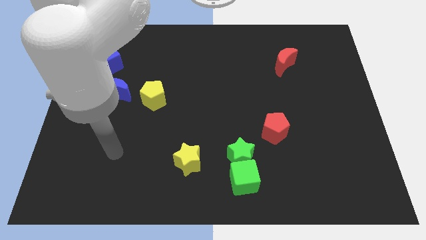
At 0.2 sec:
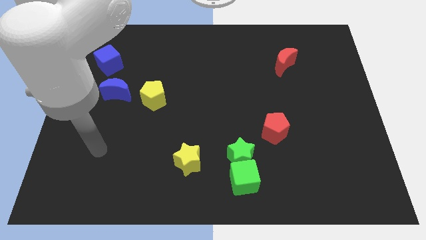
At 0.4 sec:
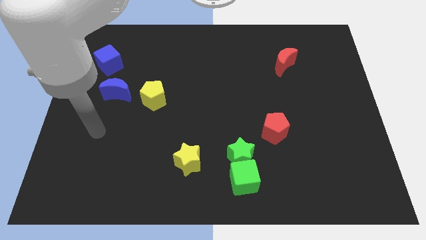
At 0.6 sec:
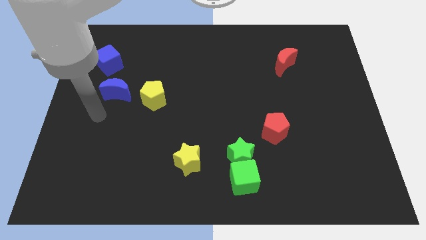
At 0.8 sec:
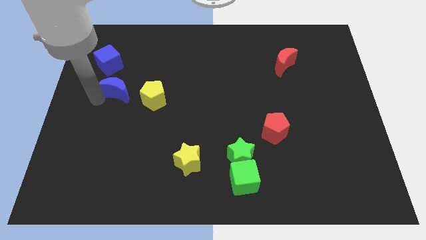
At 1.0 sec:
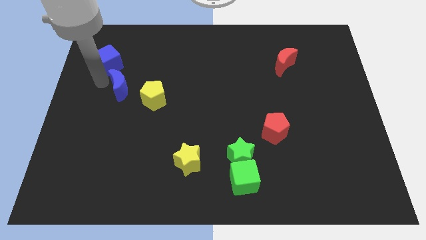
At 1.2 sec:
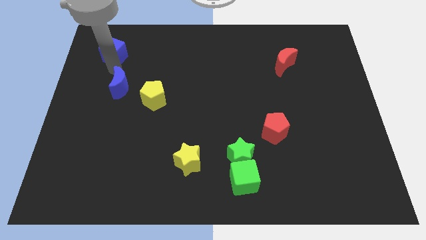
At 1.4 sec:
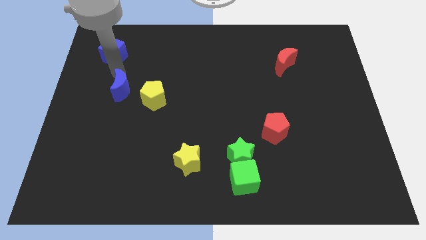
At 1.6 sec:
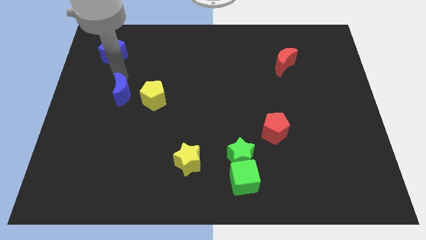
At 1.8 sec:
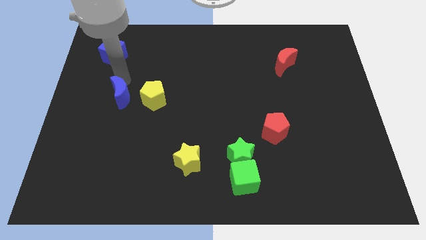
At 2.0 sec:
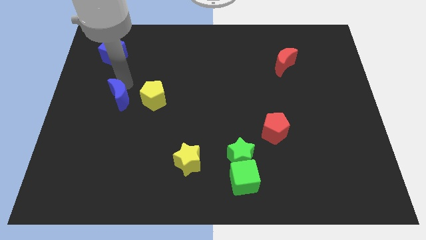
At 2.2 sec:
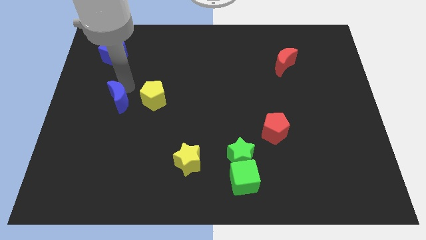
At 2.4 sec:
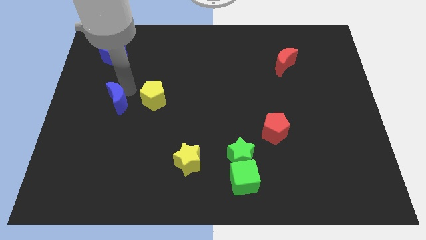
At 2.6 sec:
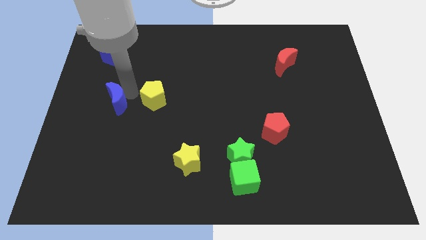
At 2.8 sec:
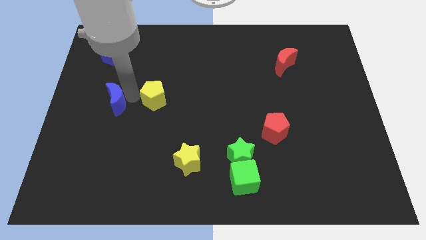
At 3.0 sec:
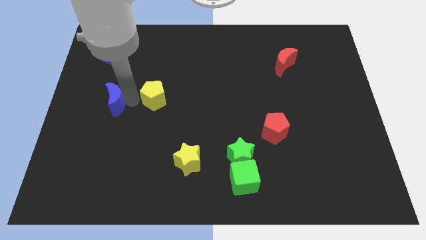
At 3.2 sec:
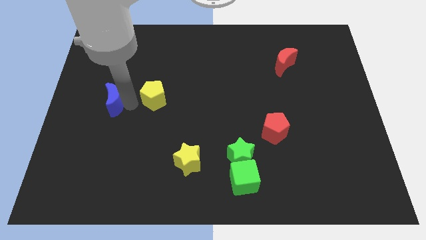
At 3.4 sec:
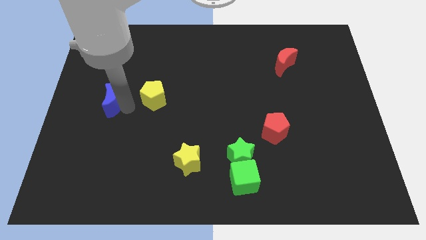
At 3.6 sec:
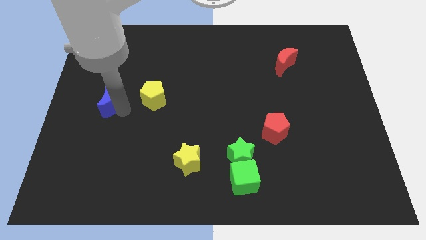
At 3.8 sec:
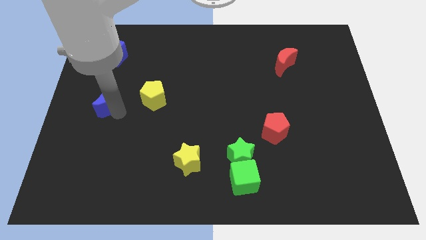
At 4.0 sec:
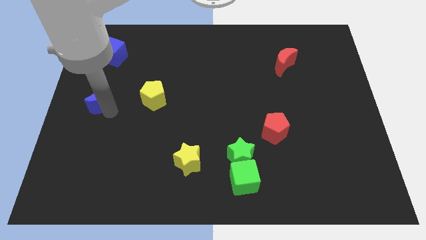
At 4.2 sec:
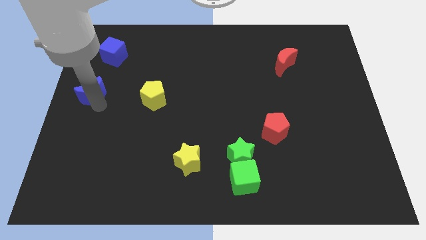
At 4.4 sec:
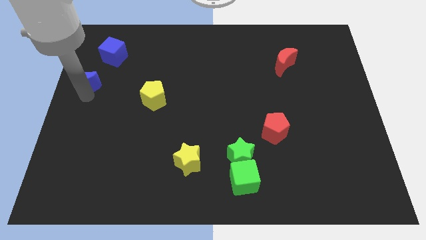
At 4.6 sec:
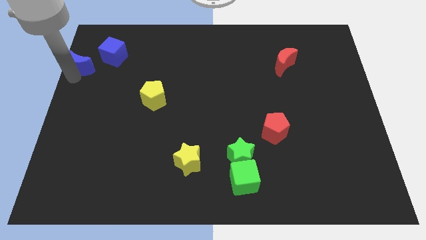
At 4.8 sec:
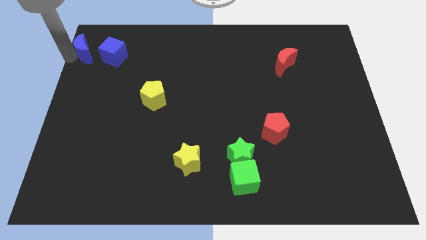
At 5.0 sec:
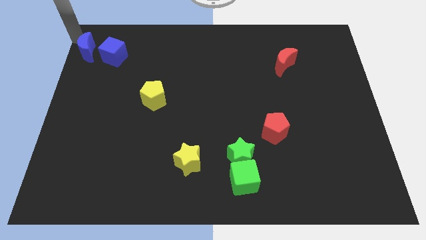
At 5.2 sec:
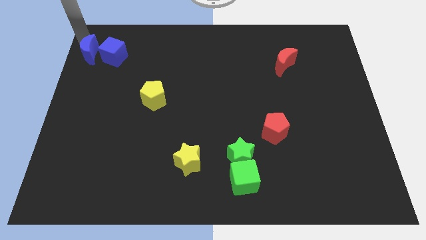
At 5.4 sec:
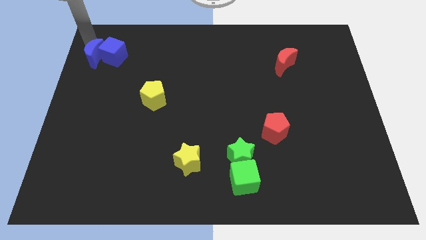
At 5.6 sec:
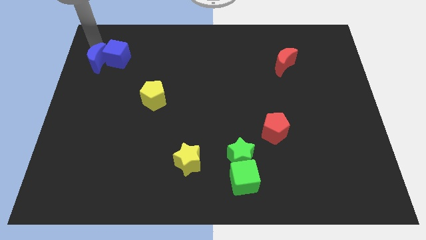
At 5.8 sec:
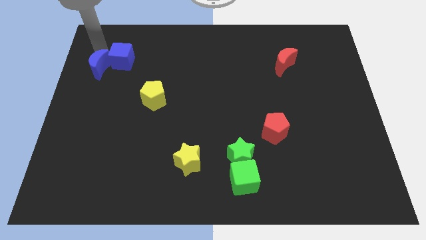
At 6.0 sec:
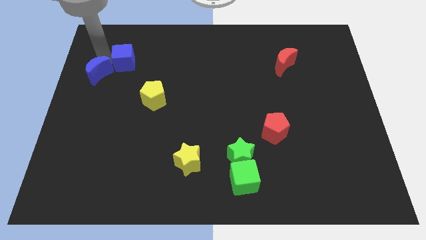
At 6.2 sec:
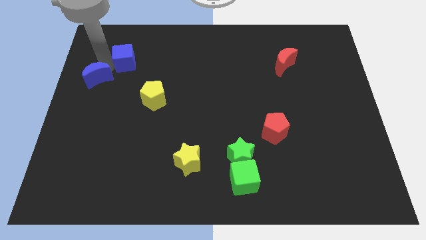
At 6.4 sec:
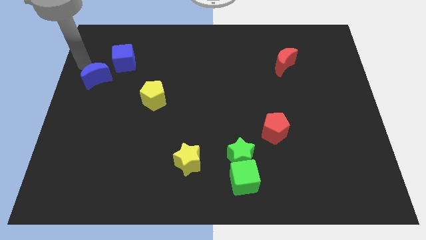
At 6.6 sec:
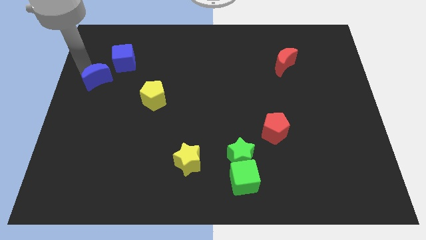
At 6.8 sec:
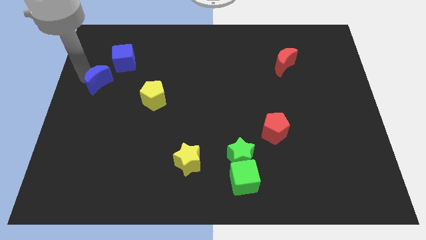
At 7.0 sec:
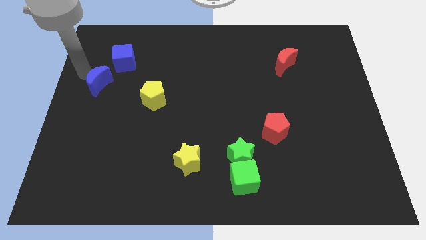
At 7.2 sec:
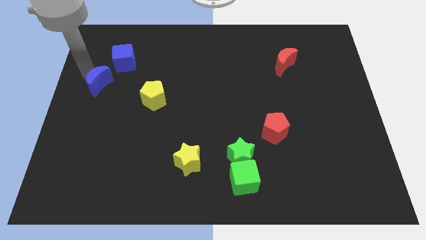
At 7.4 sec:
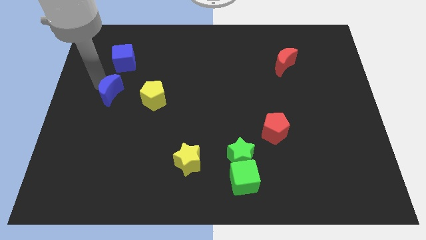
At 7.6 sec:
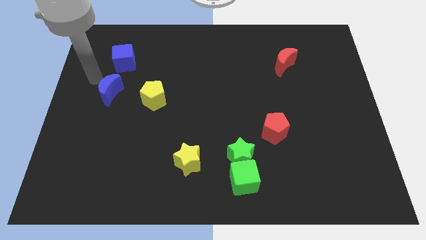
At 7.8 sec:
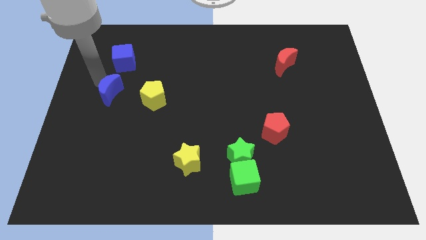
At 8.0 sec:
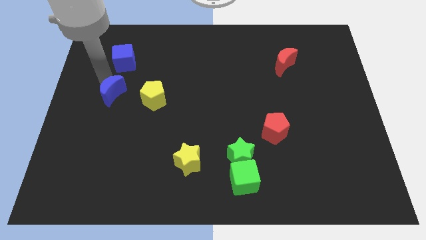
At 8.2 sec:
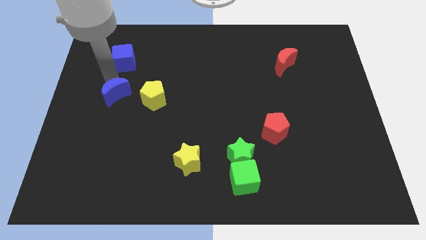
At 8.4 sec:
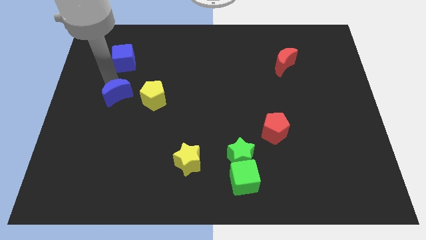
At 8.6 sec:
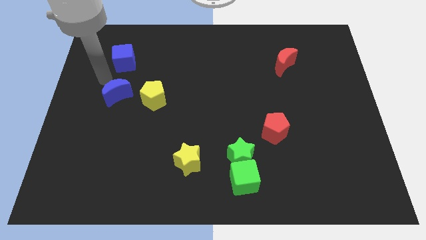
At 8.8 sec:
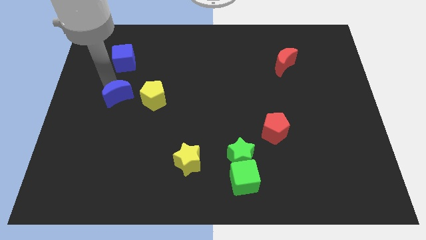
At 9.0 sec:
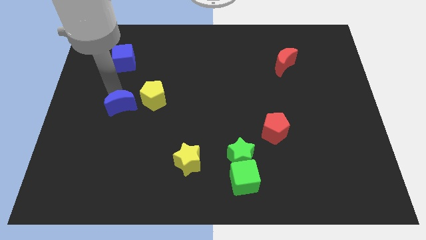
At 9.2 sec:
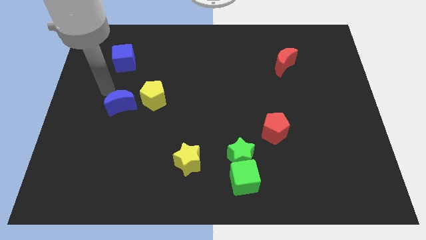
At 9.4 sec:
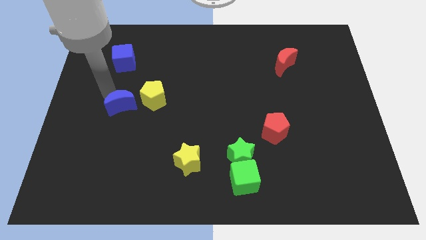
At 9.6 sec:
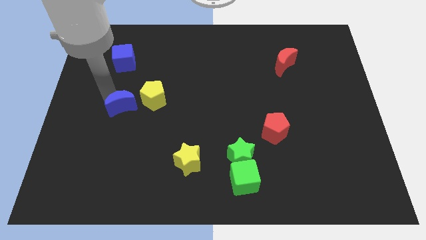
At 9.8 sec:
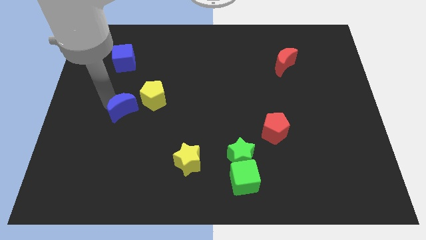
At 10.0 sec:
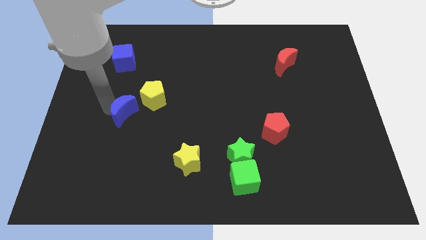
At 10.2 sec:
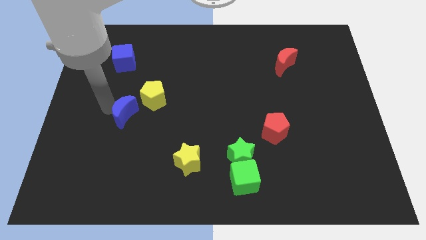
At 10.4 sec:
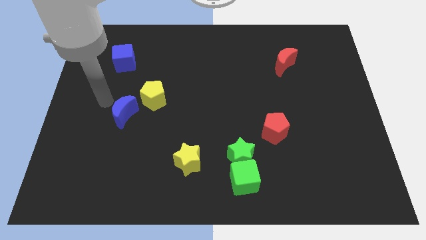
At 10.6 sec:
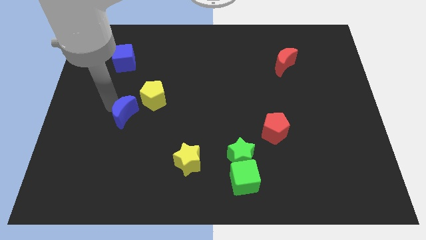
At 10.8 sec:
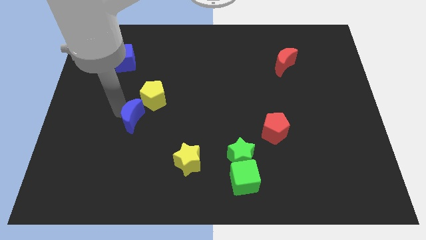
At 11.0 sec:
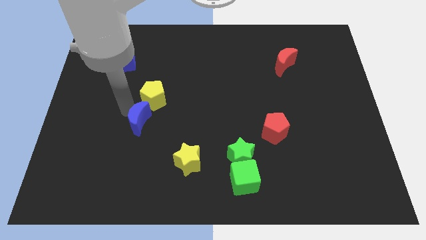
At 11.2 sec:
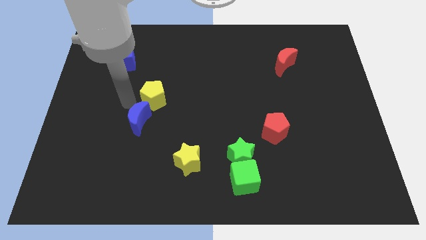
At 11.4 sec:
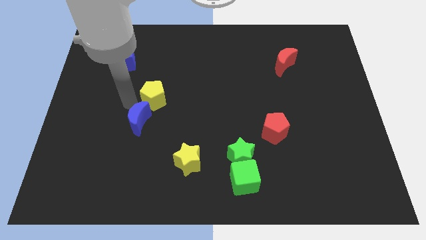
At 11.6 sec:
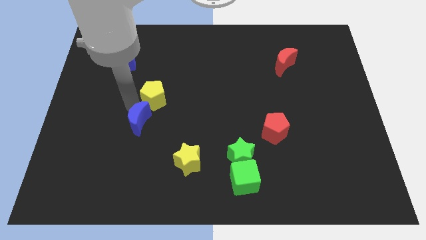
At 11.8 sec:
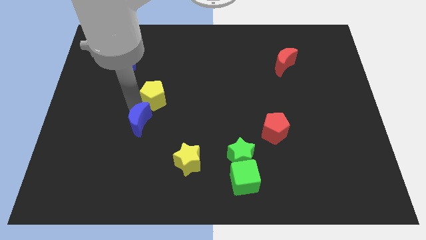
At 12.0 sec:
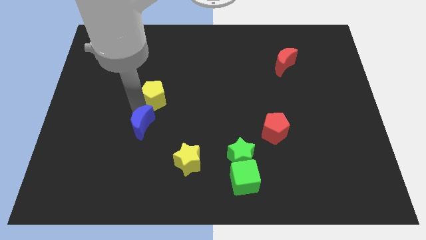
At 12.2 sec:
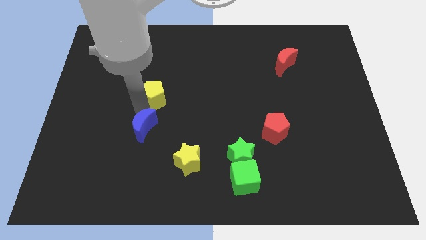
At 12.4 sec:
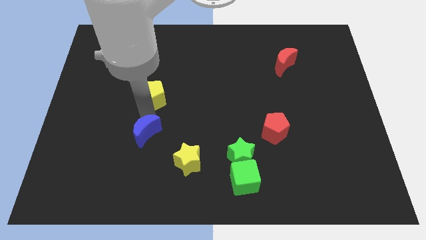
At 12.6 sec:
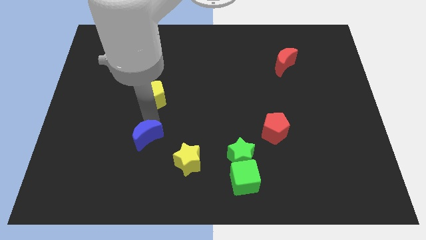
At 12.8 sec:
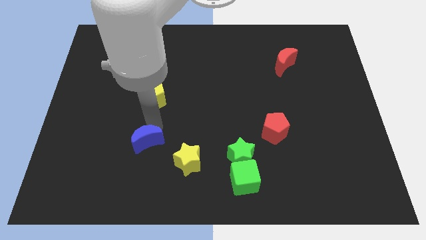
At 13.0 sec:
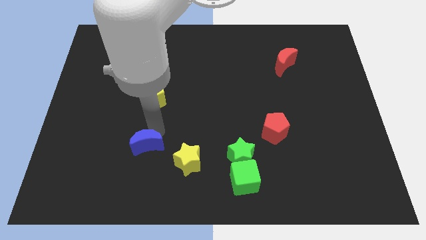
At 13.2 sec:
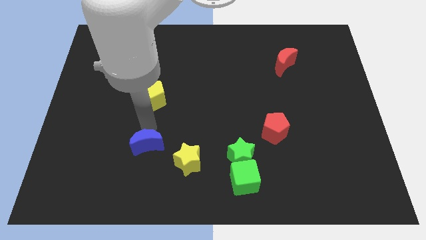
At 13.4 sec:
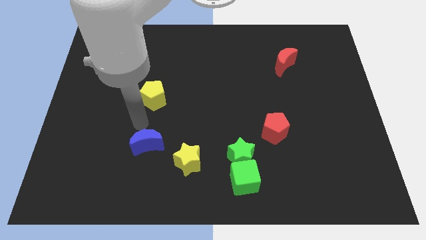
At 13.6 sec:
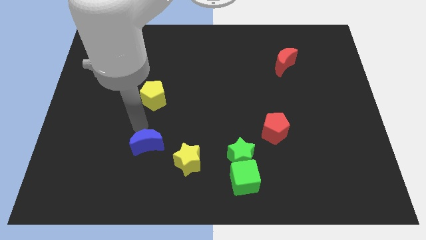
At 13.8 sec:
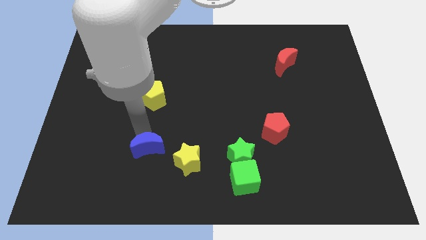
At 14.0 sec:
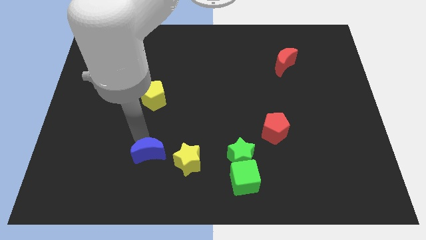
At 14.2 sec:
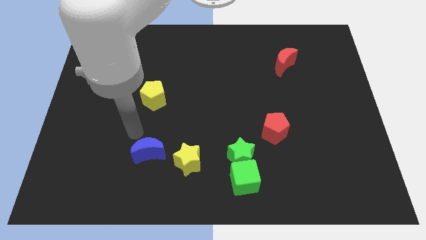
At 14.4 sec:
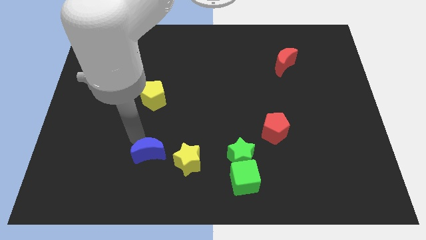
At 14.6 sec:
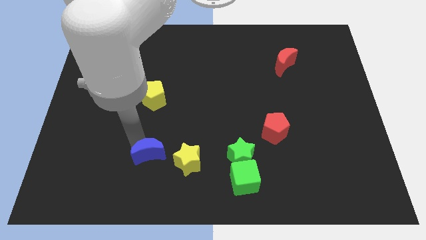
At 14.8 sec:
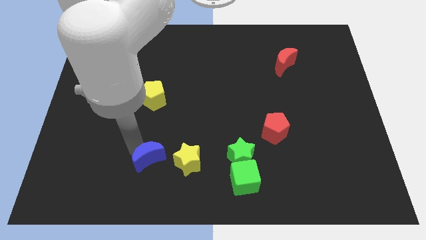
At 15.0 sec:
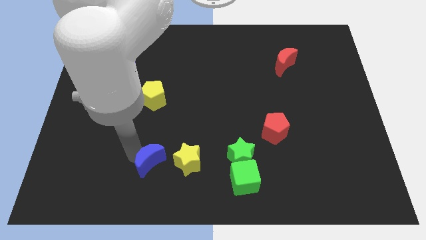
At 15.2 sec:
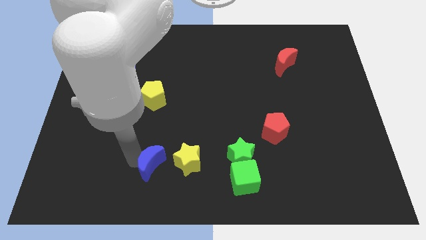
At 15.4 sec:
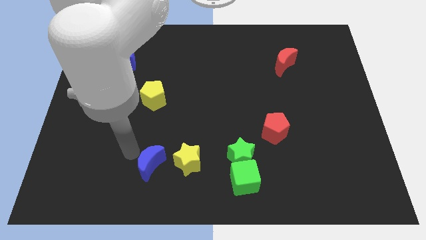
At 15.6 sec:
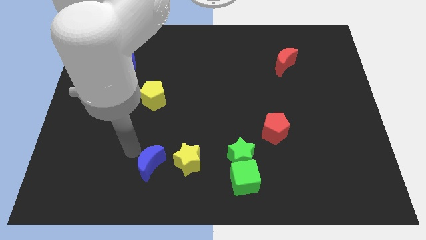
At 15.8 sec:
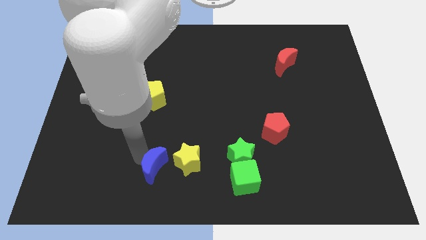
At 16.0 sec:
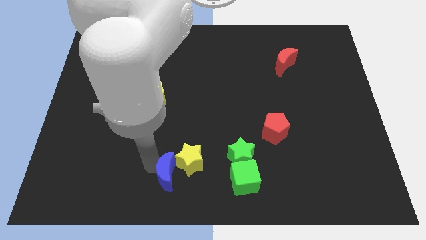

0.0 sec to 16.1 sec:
push the blue moon to the bottom
